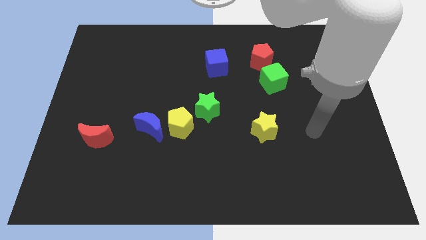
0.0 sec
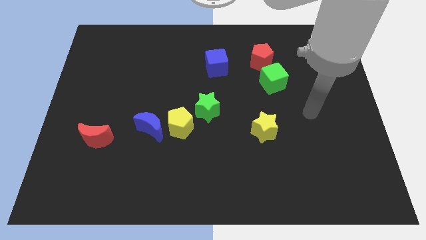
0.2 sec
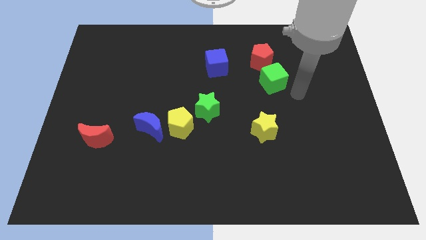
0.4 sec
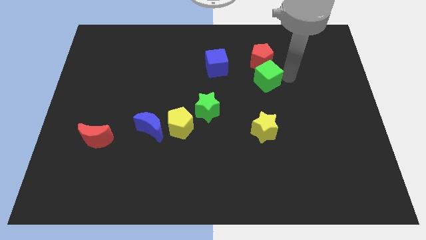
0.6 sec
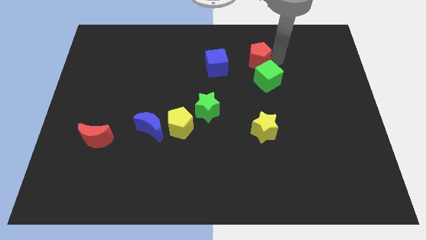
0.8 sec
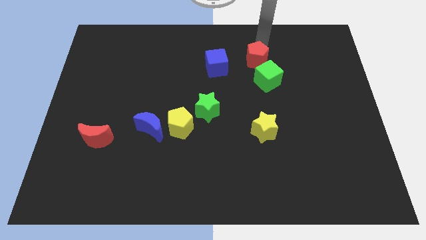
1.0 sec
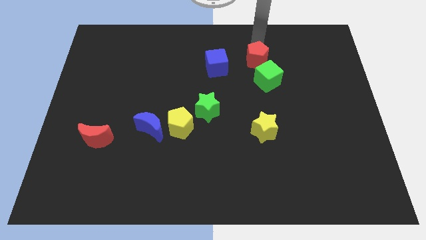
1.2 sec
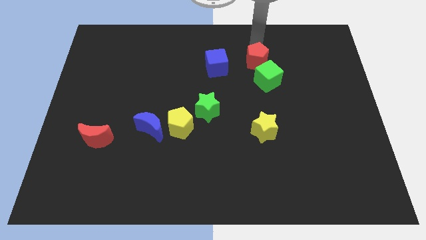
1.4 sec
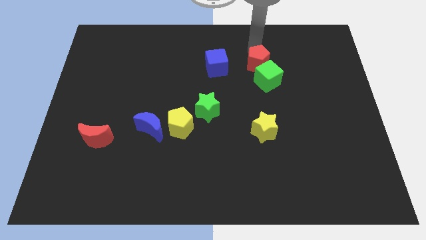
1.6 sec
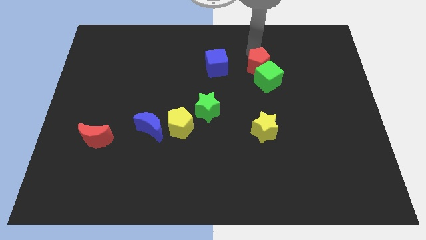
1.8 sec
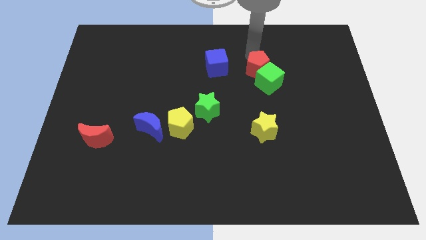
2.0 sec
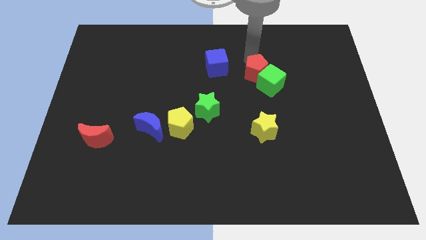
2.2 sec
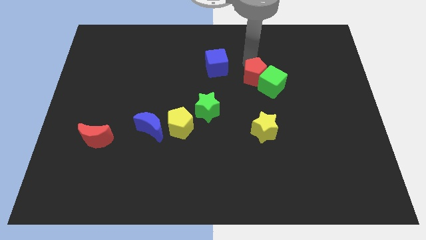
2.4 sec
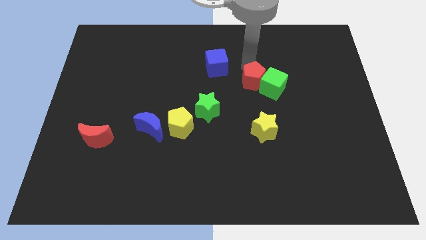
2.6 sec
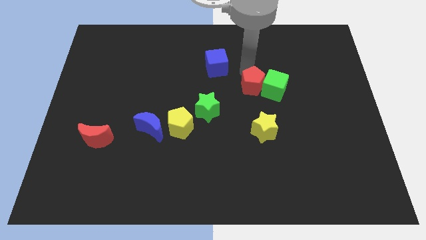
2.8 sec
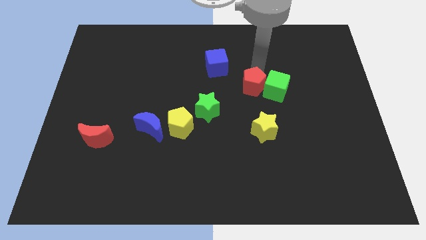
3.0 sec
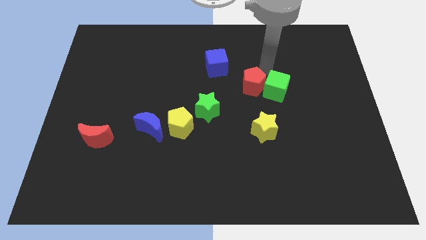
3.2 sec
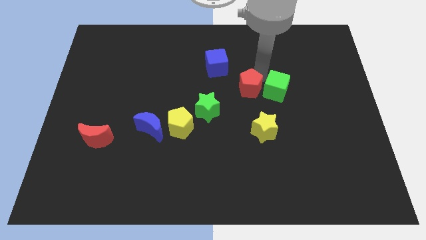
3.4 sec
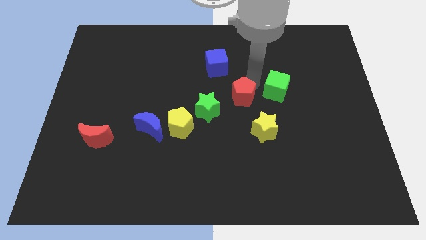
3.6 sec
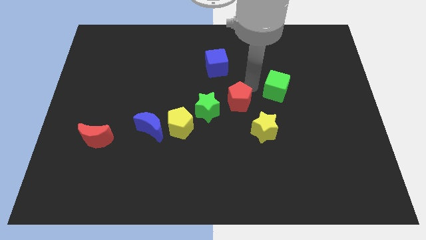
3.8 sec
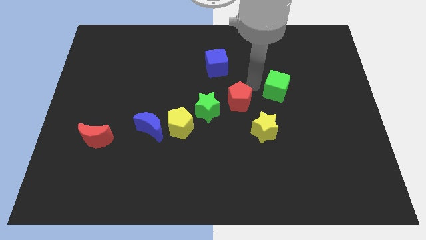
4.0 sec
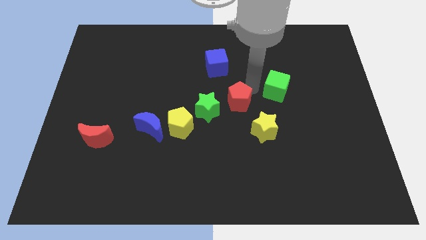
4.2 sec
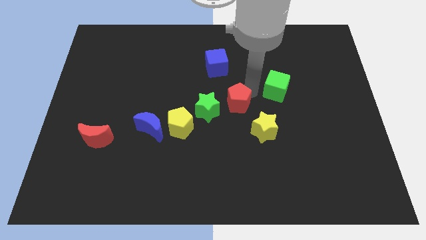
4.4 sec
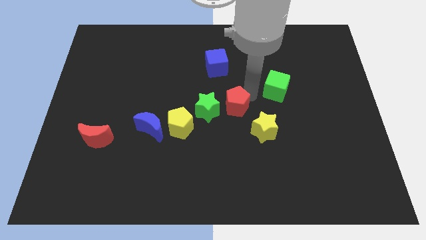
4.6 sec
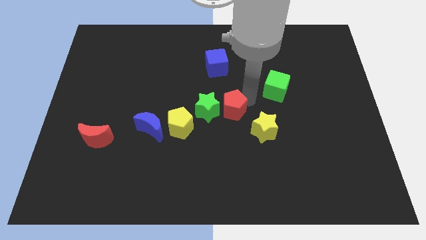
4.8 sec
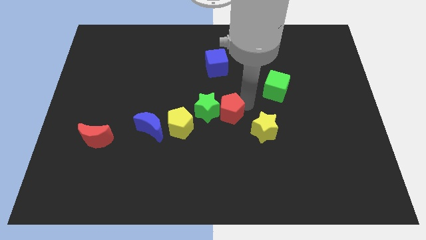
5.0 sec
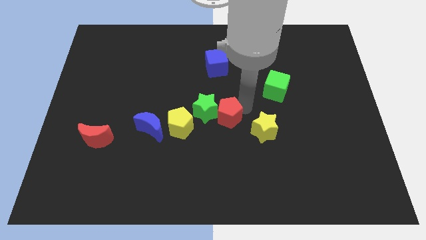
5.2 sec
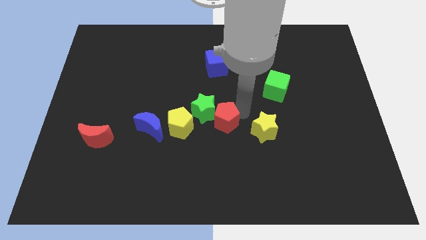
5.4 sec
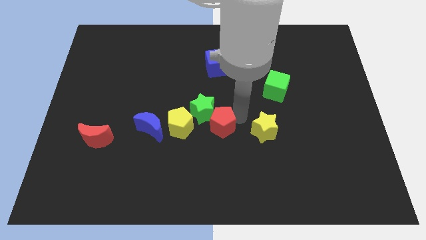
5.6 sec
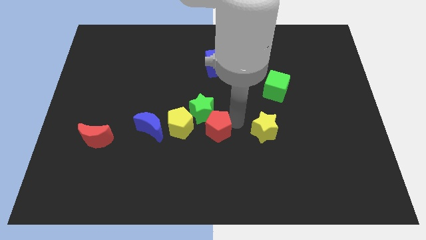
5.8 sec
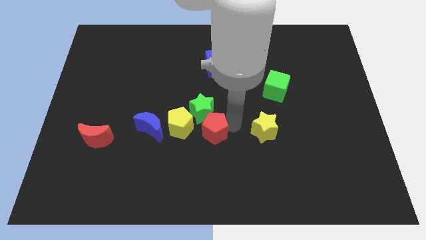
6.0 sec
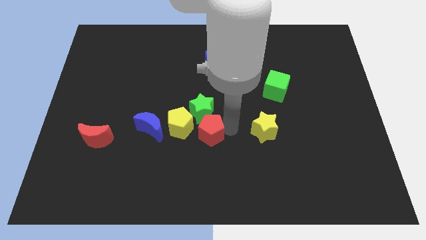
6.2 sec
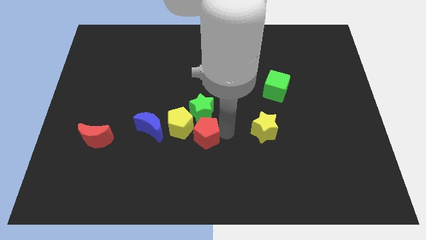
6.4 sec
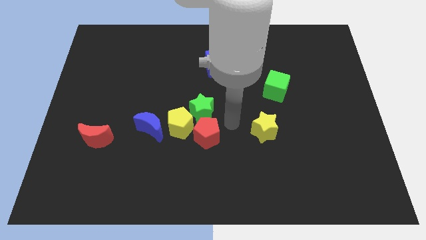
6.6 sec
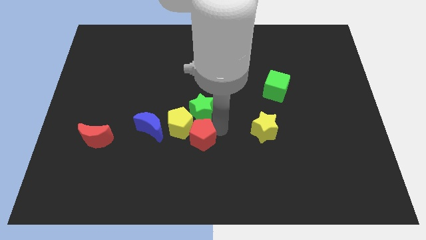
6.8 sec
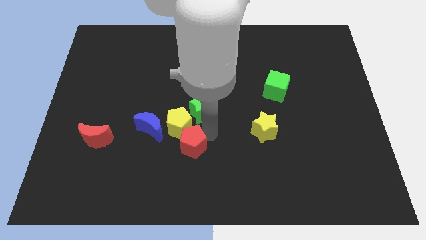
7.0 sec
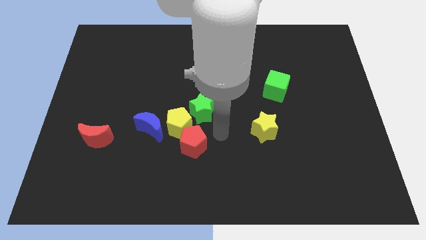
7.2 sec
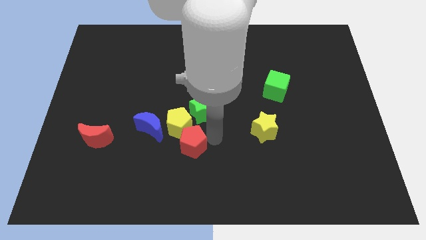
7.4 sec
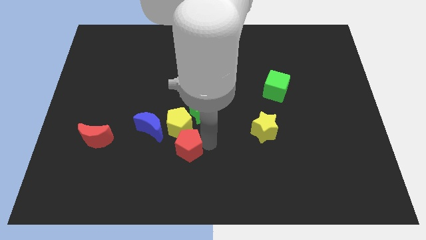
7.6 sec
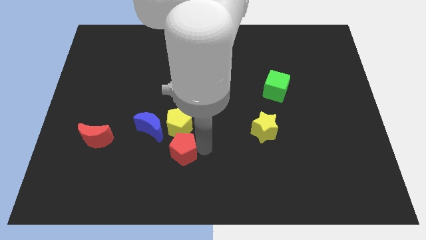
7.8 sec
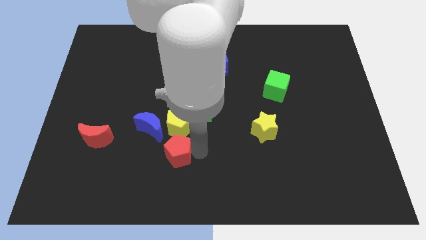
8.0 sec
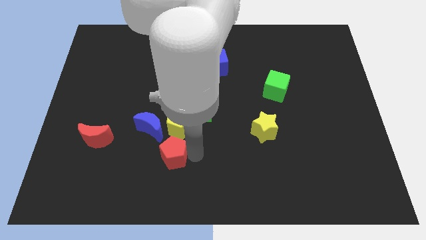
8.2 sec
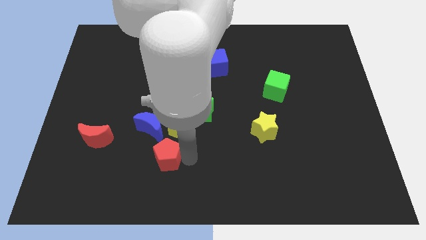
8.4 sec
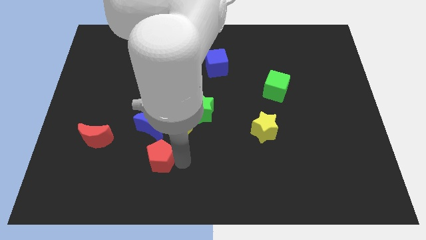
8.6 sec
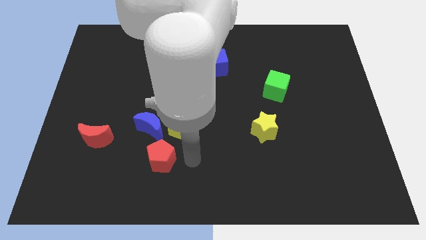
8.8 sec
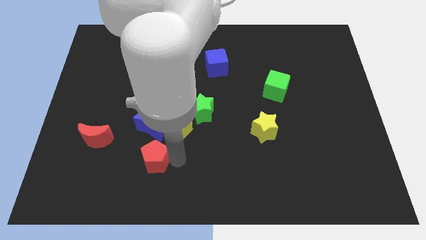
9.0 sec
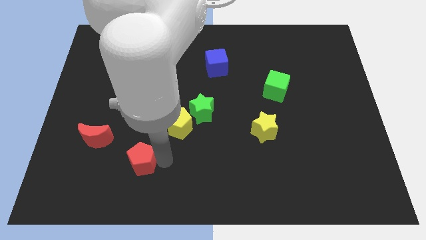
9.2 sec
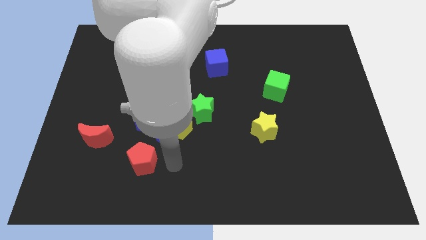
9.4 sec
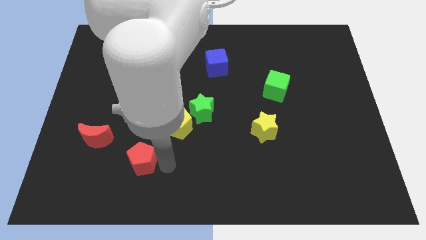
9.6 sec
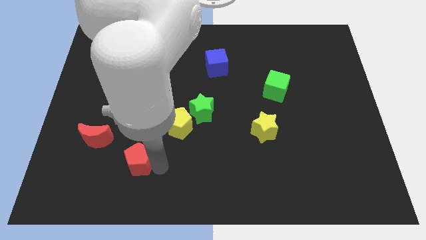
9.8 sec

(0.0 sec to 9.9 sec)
move the red pentagon to the bottom right side of the red moon

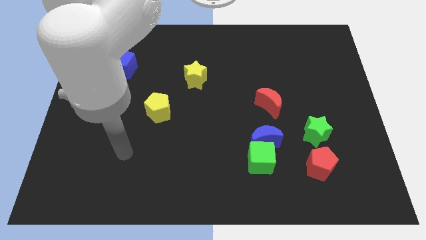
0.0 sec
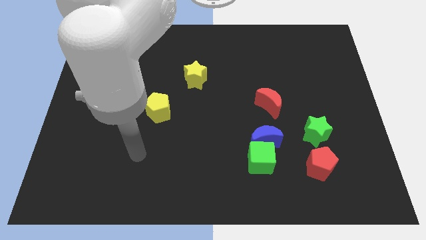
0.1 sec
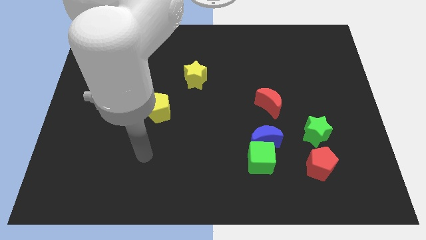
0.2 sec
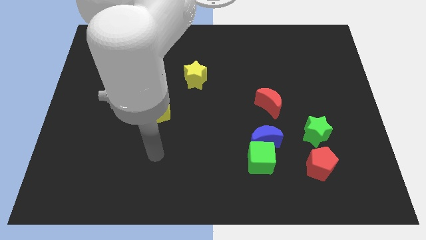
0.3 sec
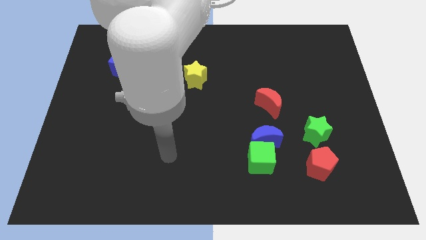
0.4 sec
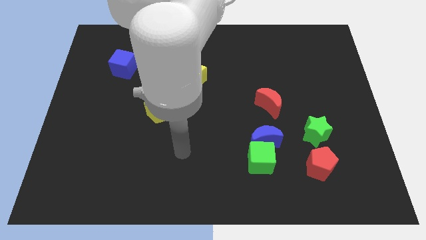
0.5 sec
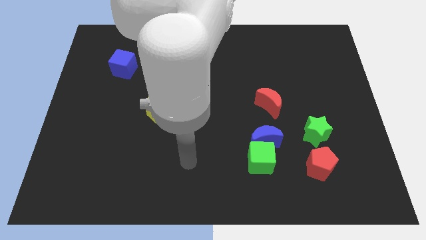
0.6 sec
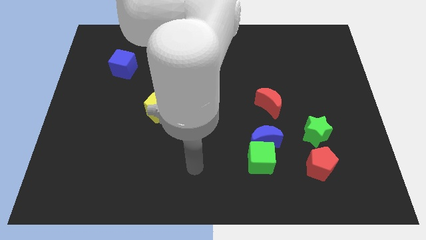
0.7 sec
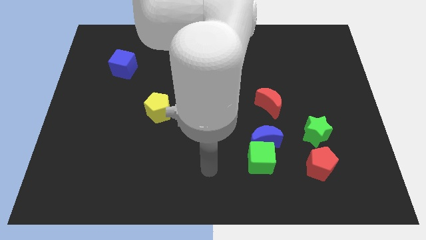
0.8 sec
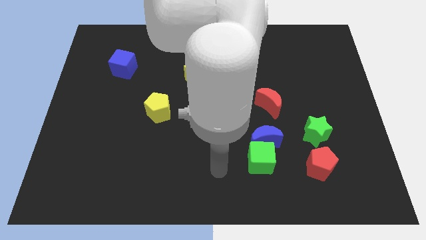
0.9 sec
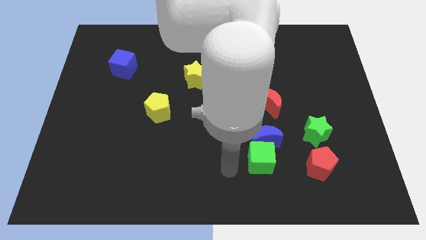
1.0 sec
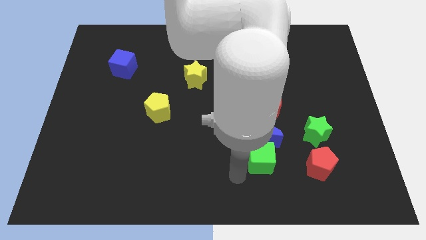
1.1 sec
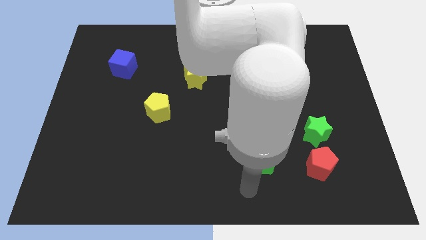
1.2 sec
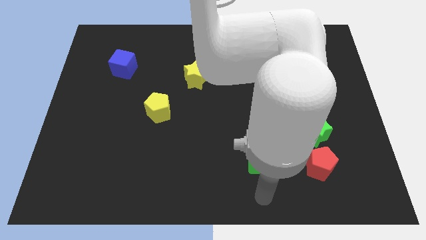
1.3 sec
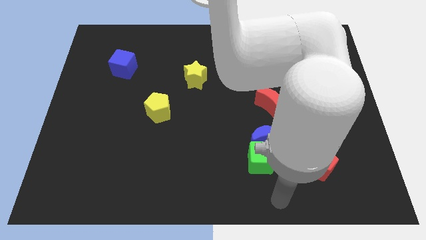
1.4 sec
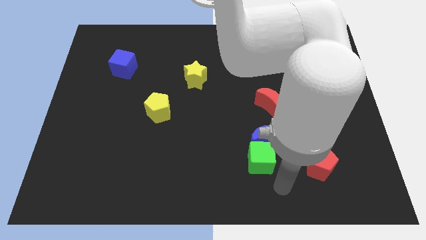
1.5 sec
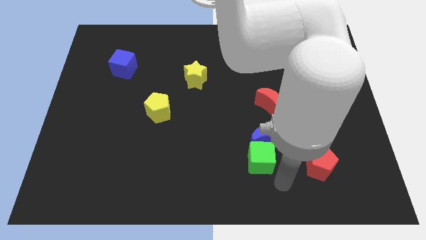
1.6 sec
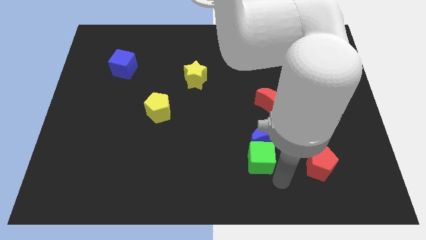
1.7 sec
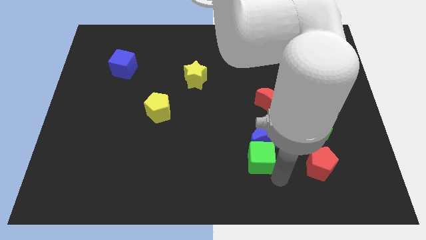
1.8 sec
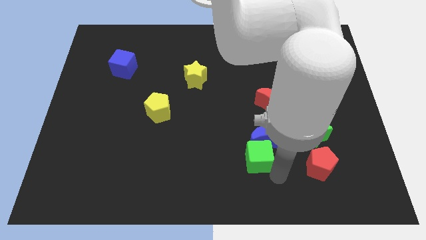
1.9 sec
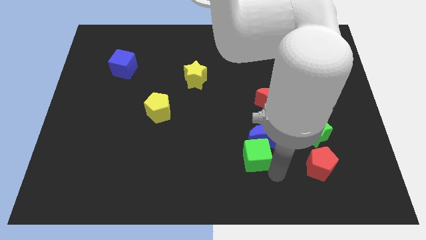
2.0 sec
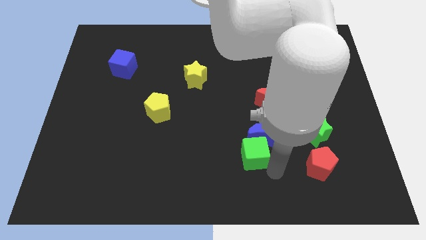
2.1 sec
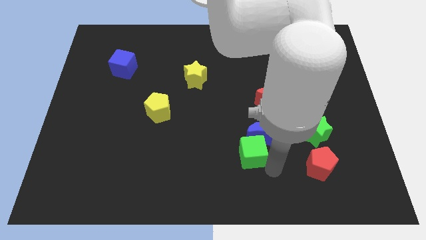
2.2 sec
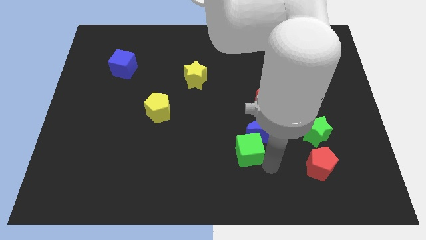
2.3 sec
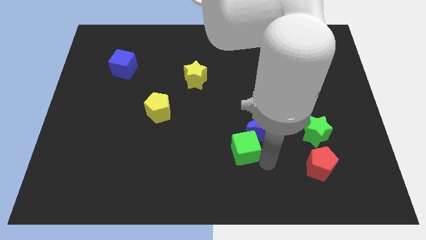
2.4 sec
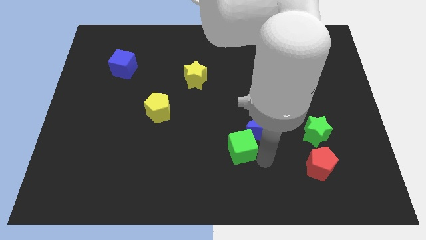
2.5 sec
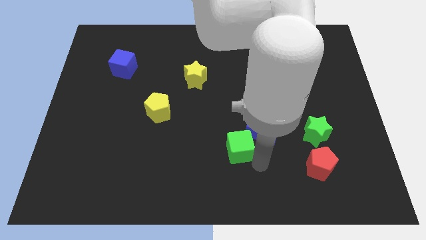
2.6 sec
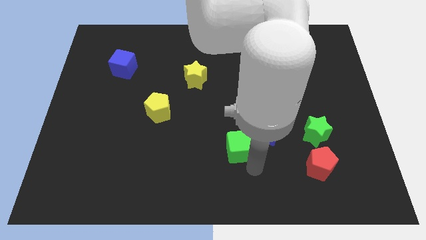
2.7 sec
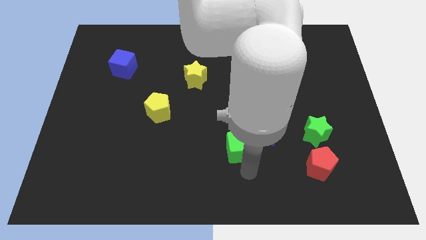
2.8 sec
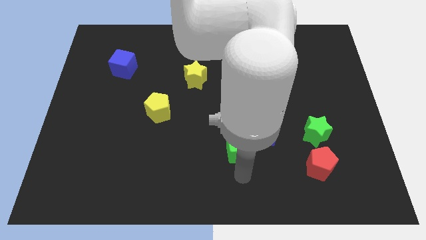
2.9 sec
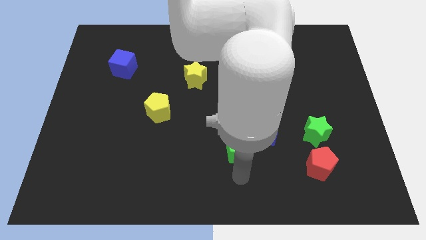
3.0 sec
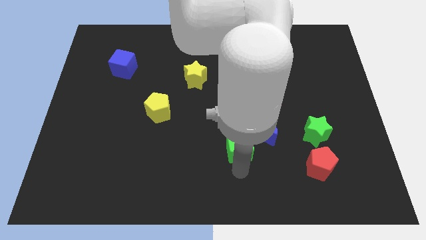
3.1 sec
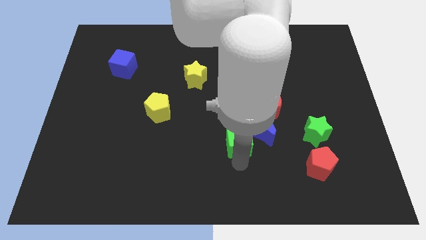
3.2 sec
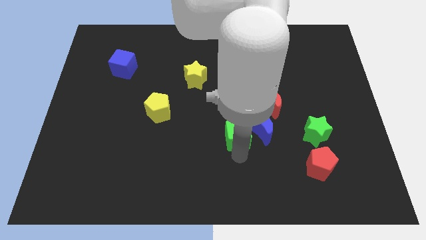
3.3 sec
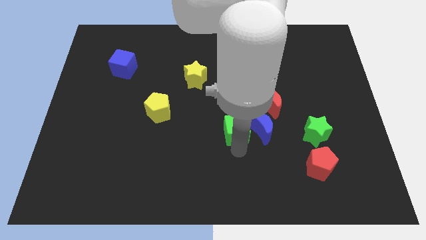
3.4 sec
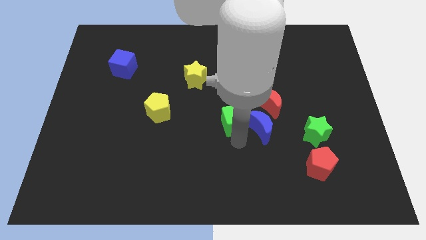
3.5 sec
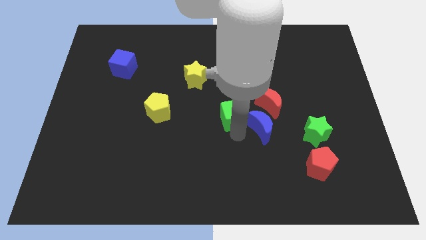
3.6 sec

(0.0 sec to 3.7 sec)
move the green cube just left of the red moon
